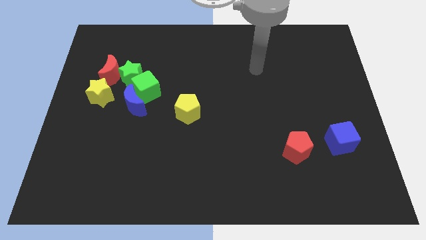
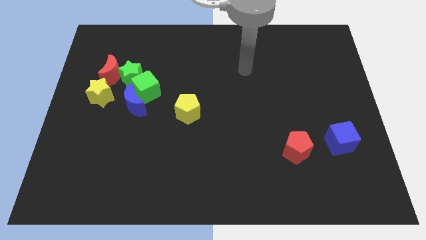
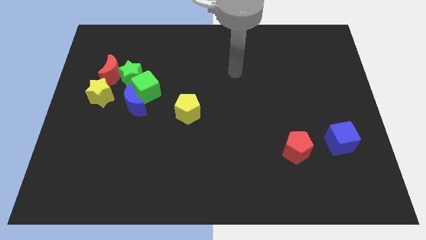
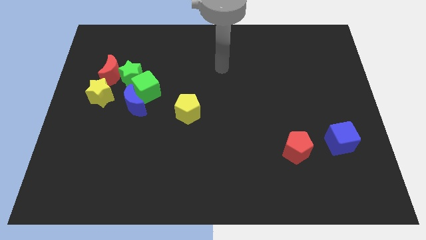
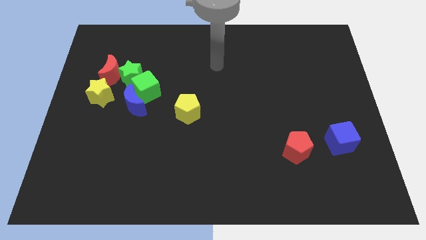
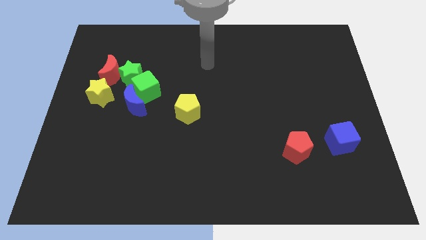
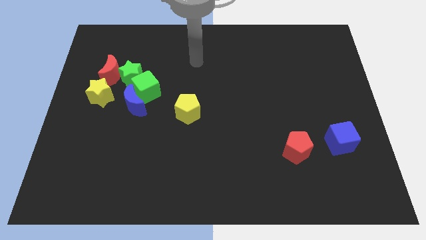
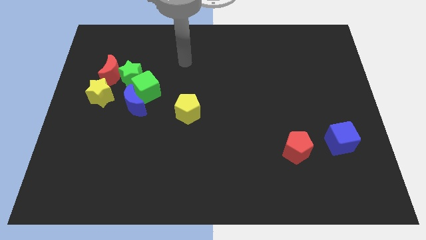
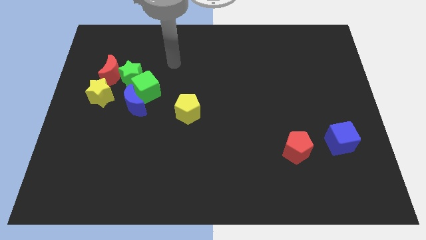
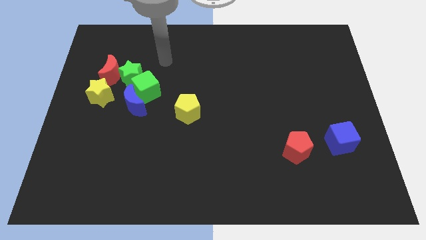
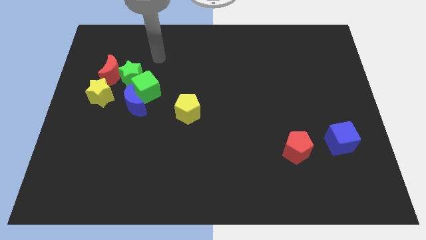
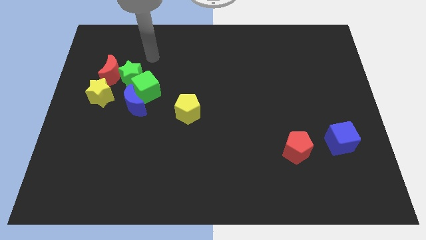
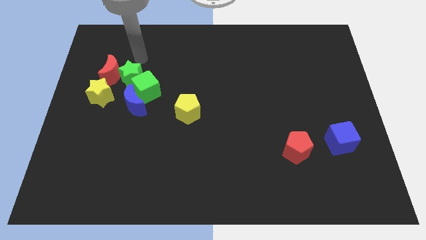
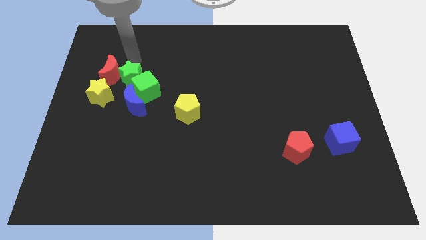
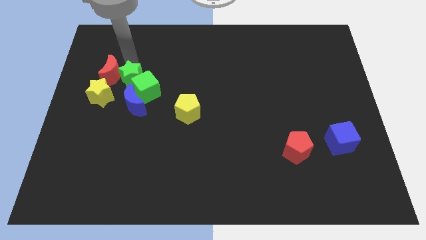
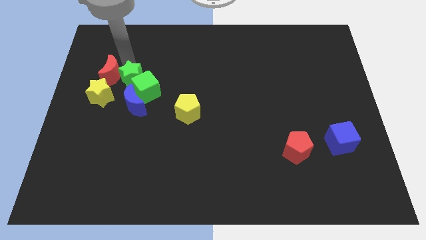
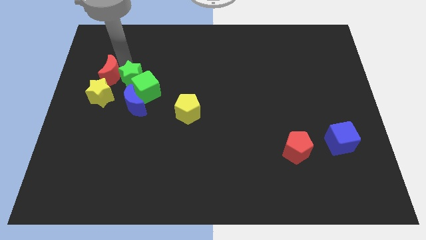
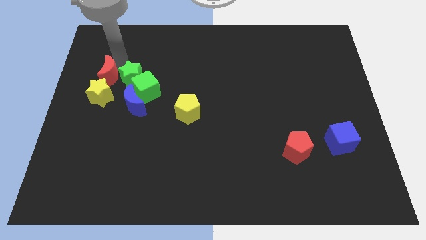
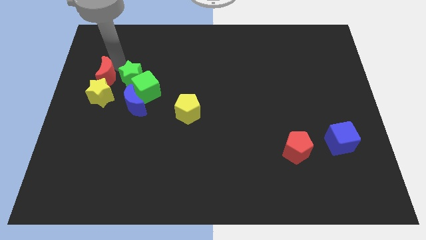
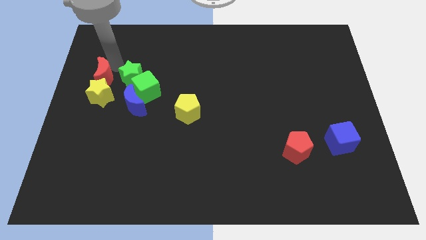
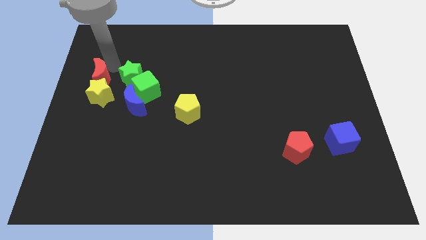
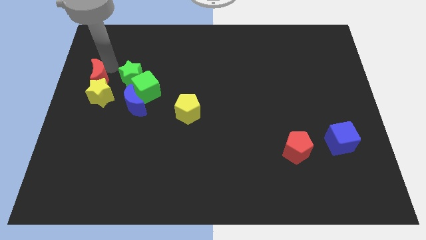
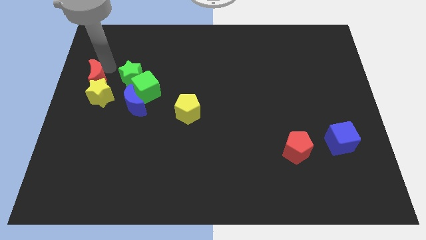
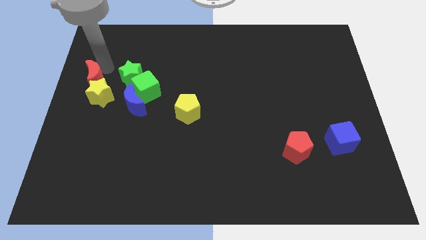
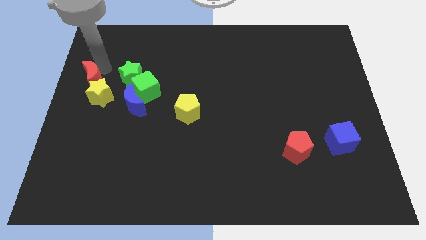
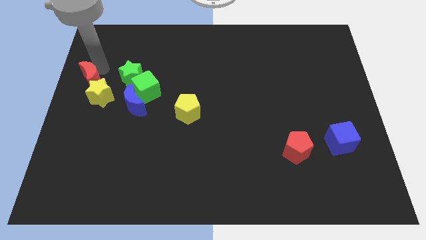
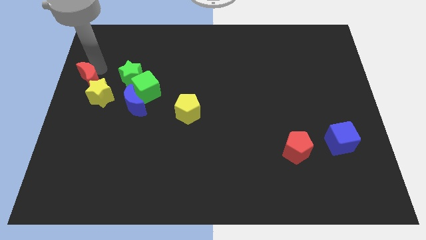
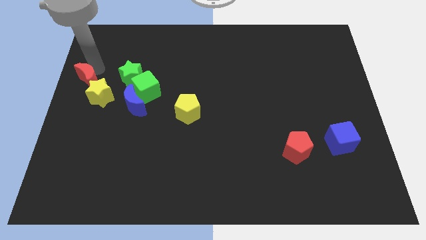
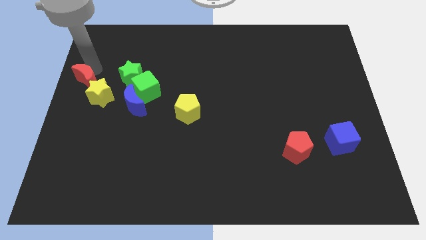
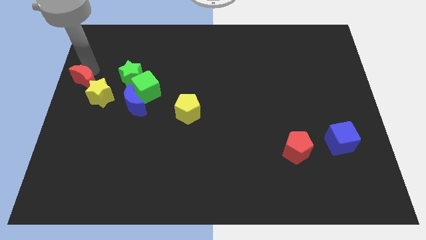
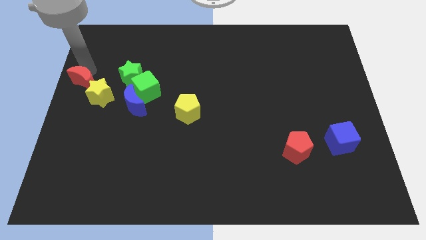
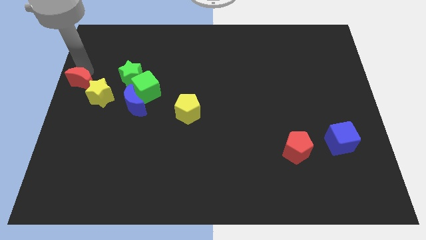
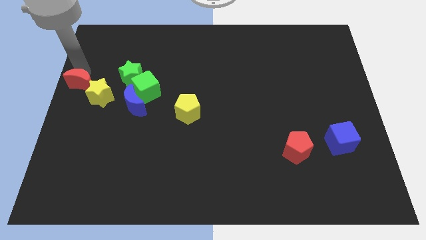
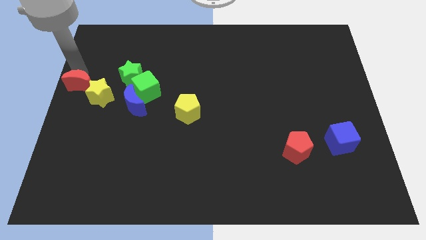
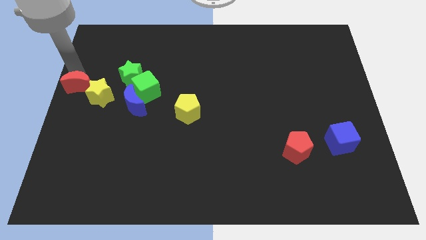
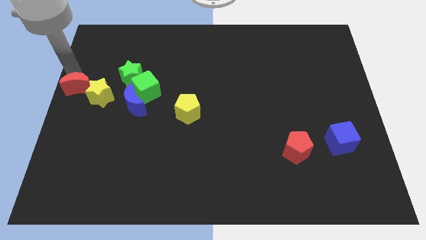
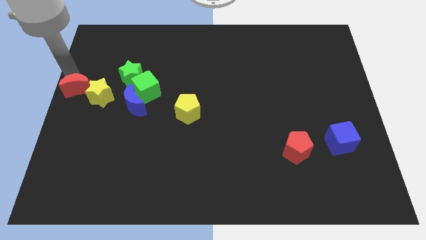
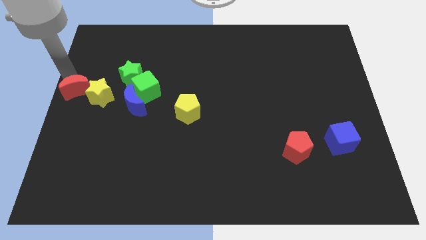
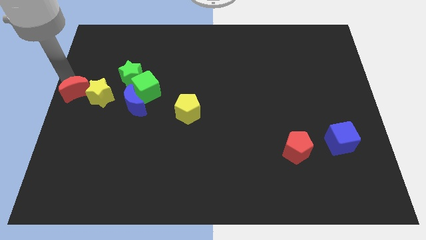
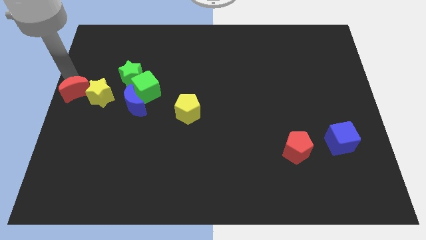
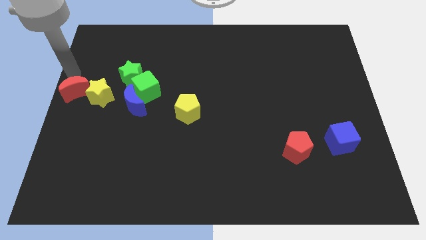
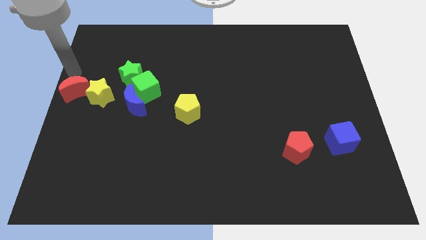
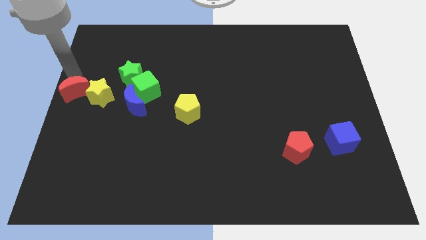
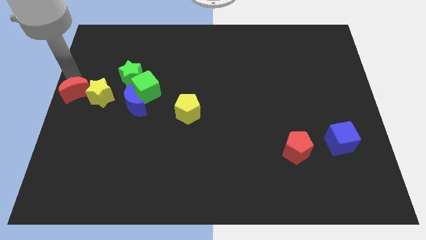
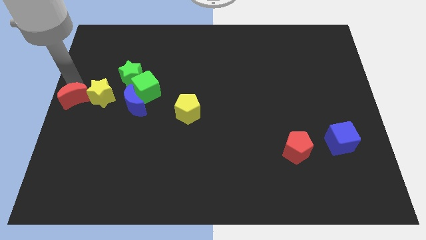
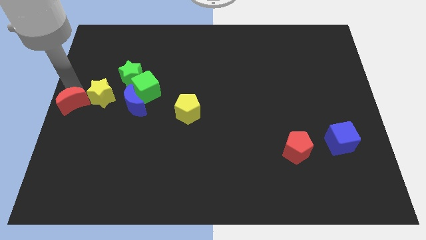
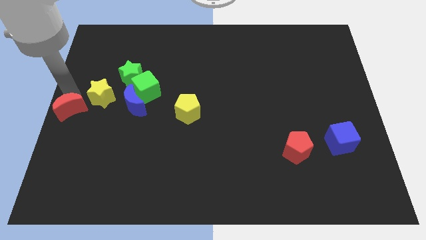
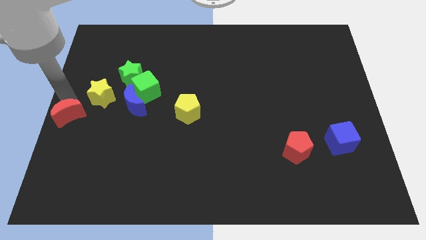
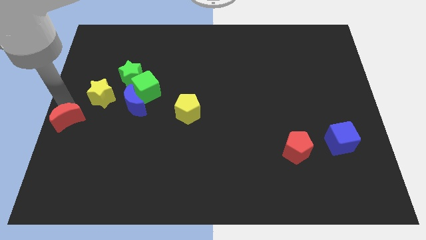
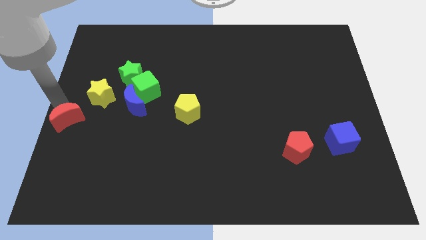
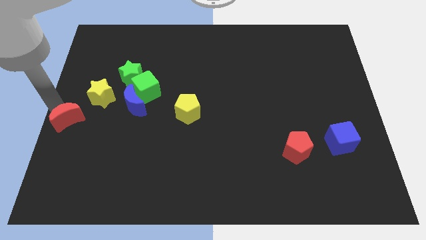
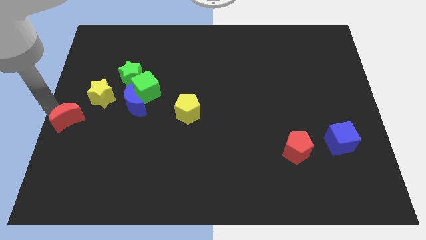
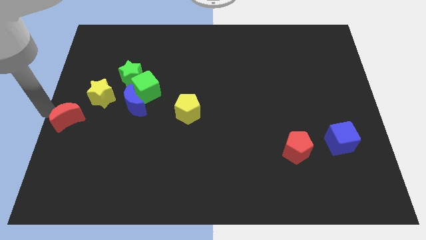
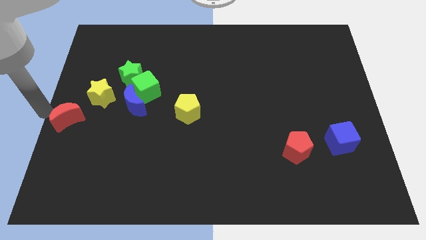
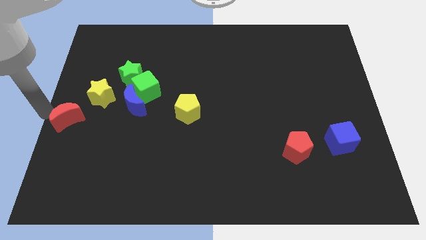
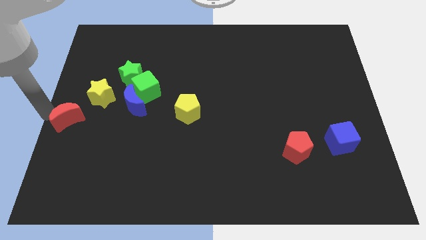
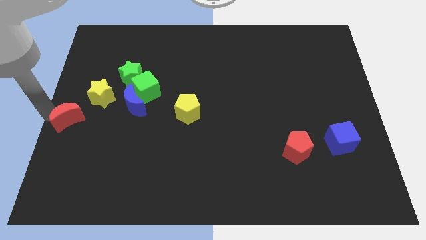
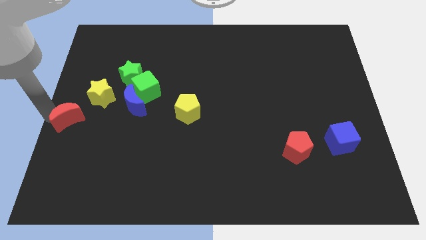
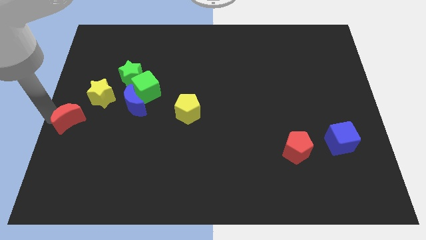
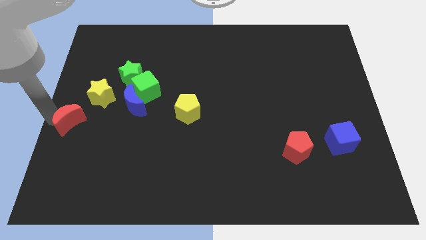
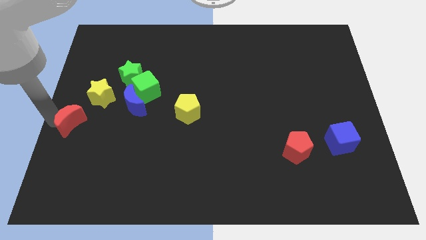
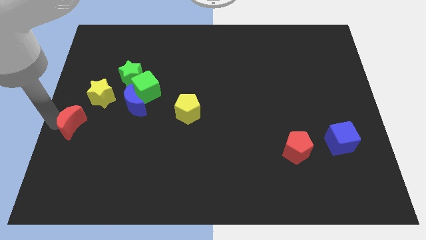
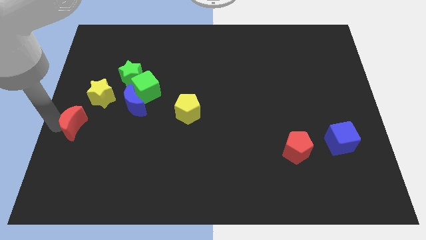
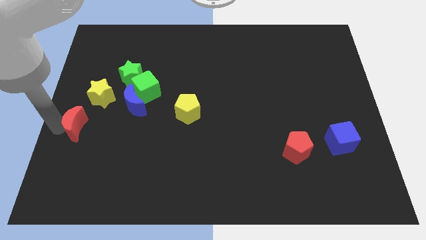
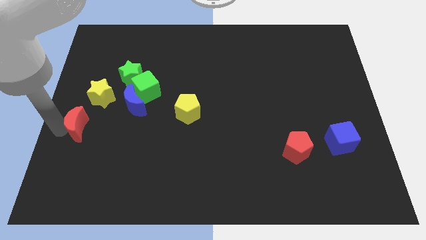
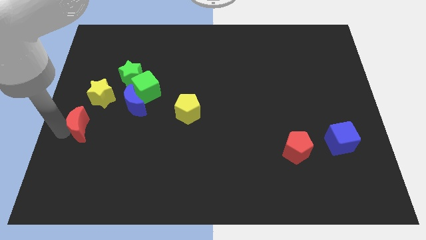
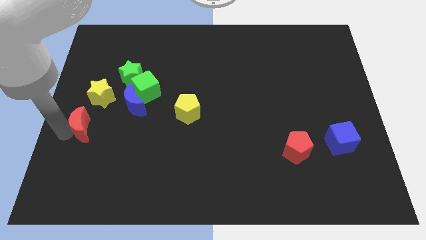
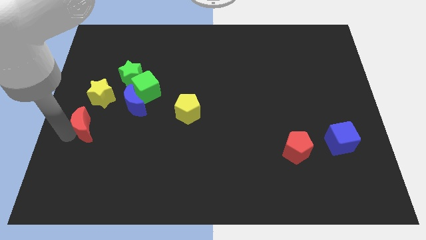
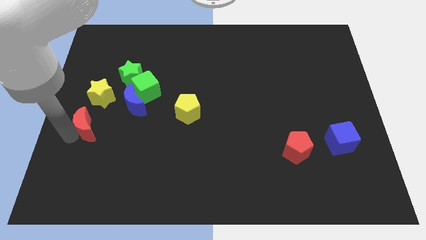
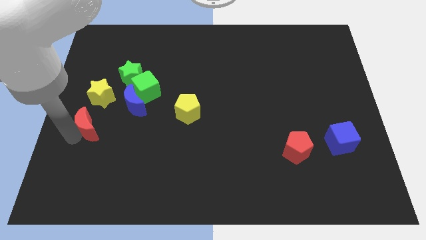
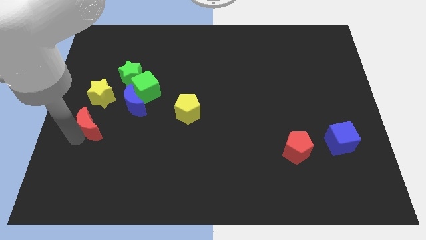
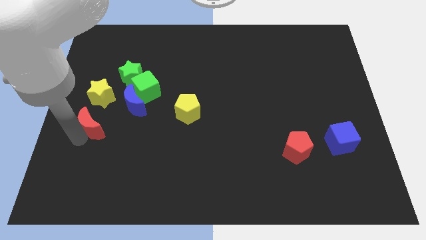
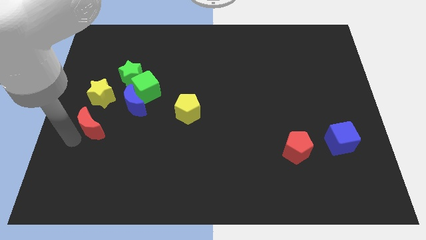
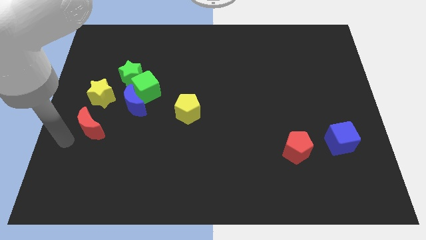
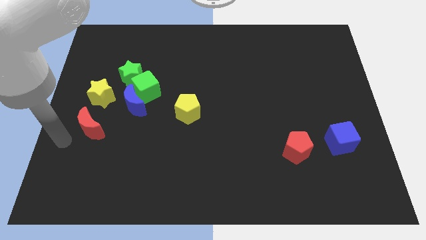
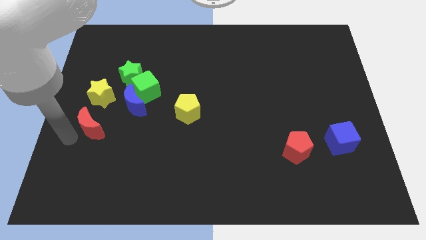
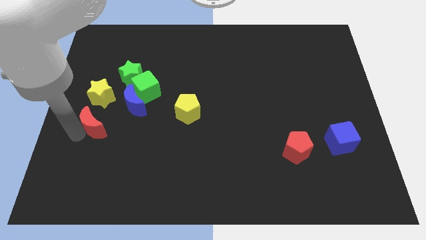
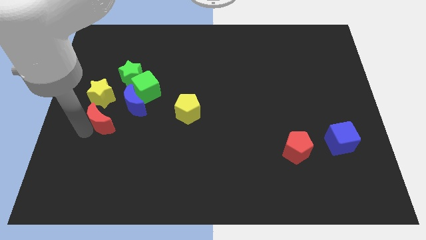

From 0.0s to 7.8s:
push the red moon to the bottom right of the yellow star
